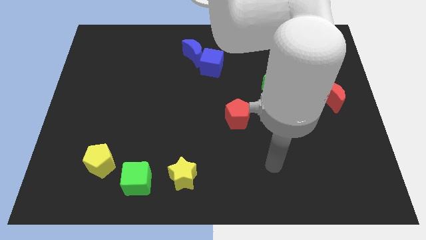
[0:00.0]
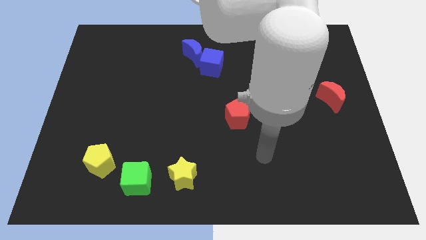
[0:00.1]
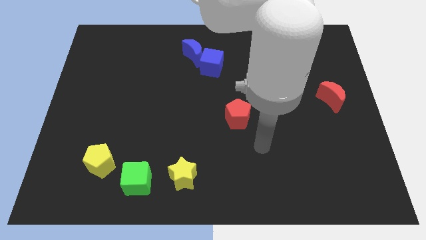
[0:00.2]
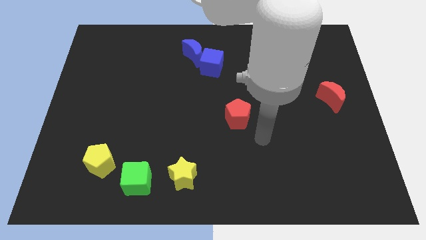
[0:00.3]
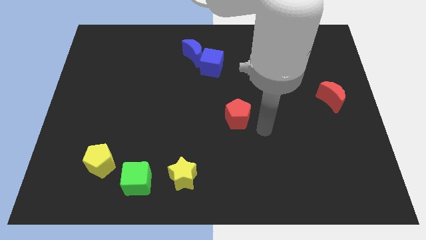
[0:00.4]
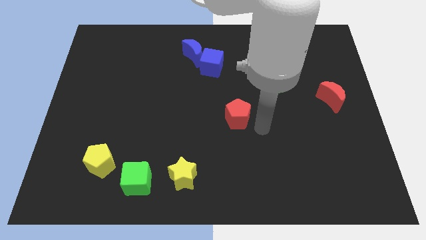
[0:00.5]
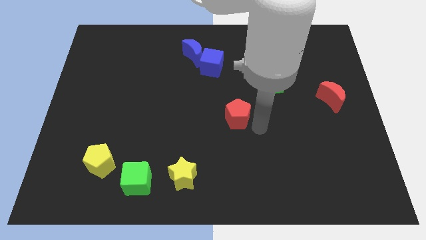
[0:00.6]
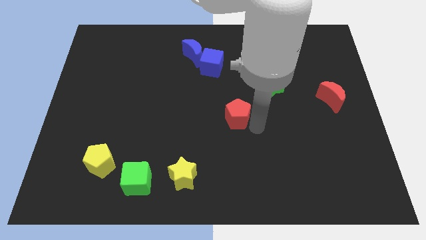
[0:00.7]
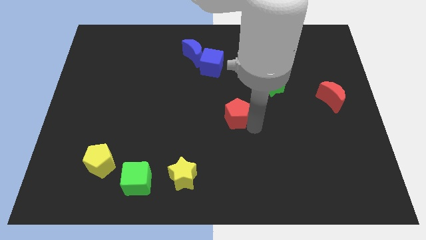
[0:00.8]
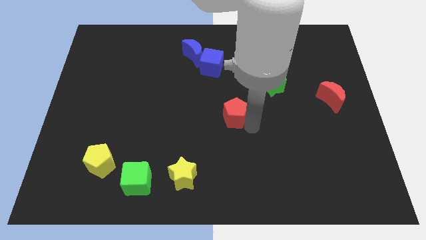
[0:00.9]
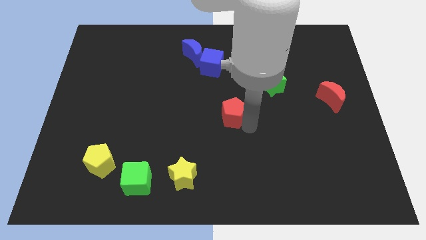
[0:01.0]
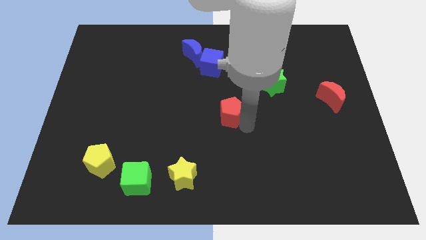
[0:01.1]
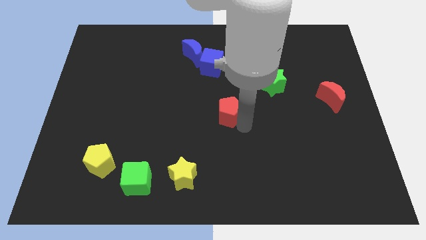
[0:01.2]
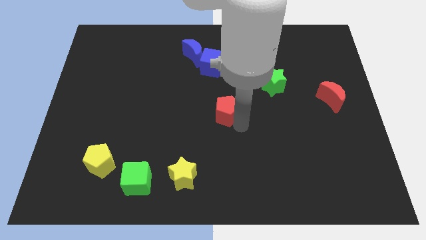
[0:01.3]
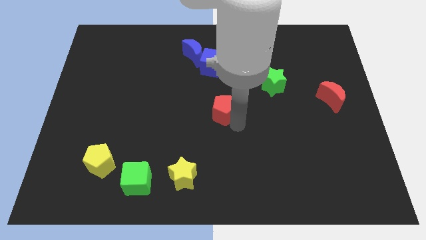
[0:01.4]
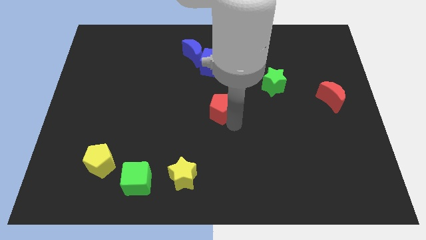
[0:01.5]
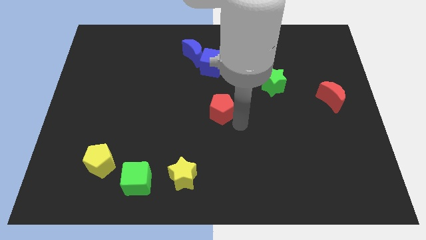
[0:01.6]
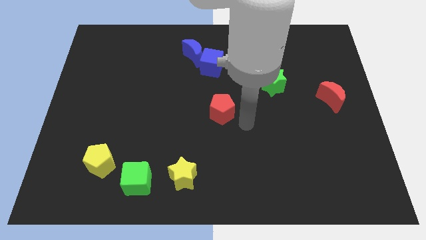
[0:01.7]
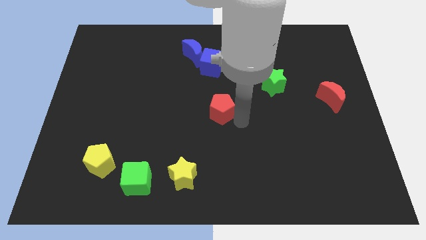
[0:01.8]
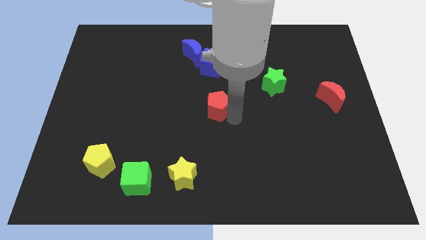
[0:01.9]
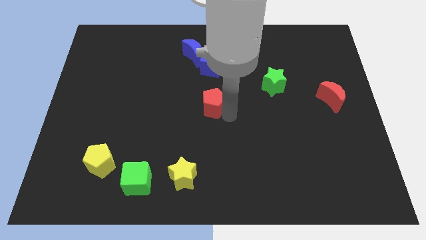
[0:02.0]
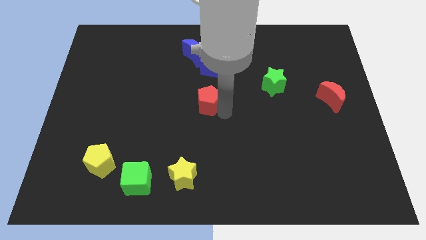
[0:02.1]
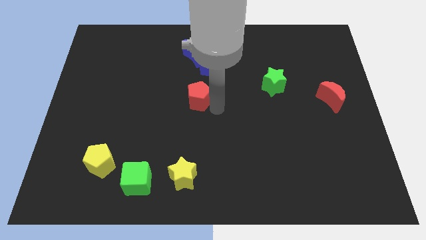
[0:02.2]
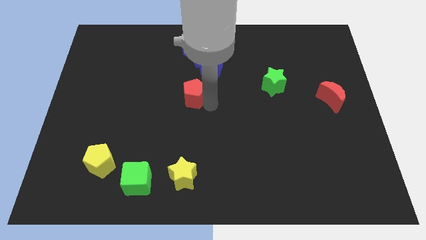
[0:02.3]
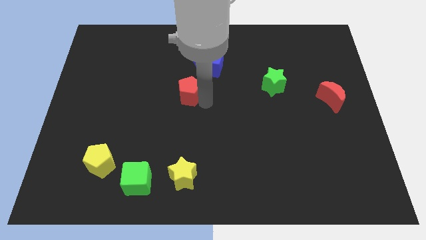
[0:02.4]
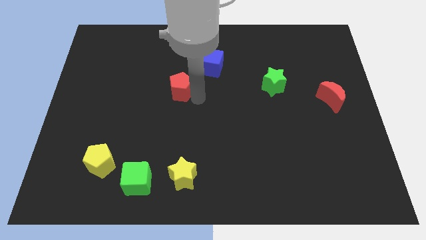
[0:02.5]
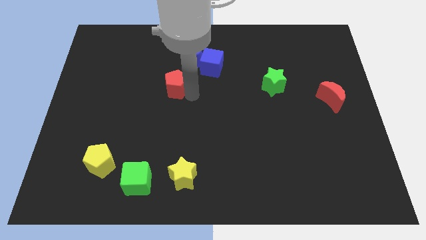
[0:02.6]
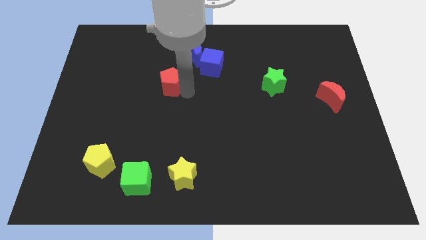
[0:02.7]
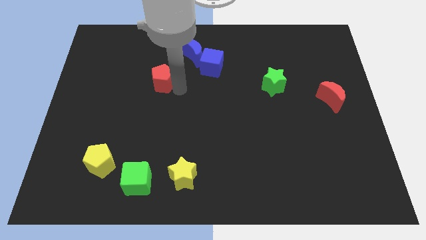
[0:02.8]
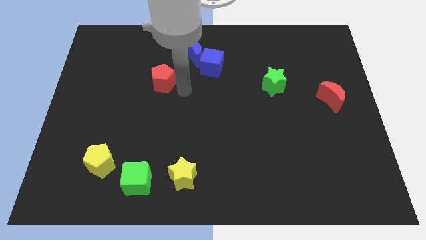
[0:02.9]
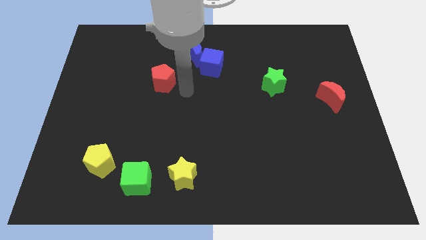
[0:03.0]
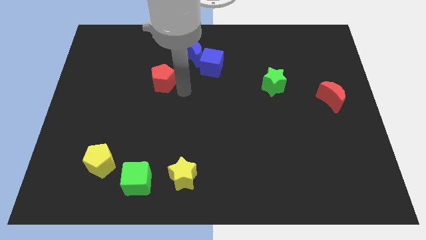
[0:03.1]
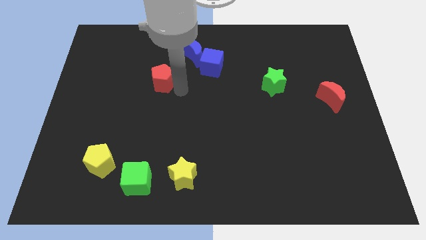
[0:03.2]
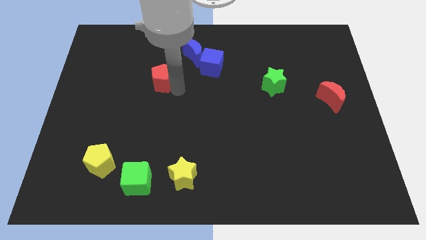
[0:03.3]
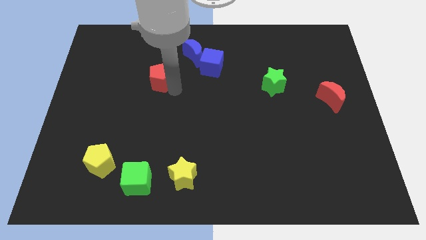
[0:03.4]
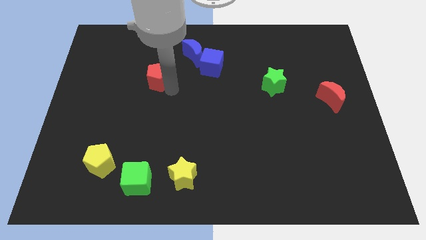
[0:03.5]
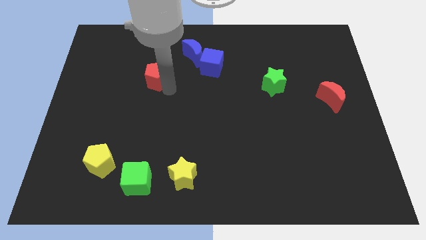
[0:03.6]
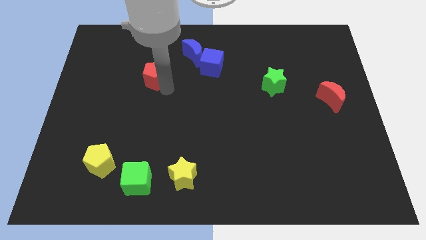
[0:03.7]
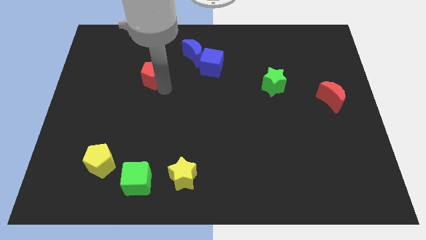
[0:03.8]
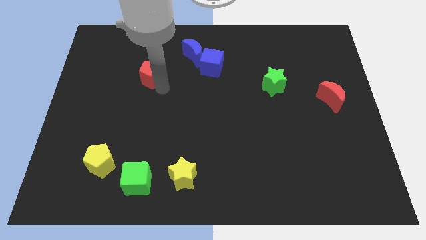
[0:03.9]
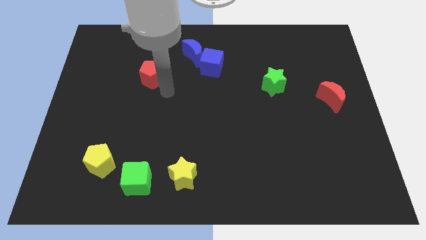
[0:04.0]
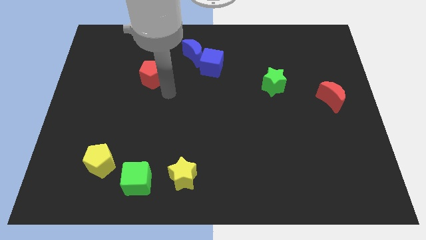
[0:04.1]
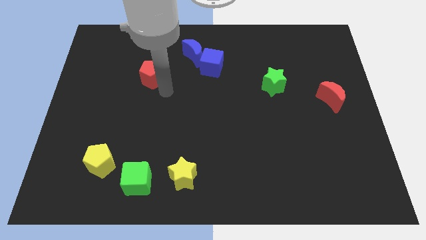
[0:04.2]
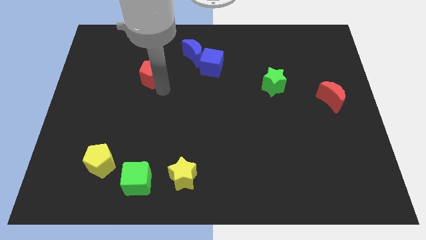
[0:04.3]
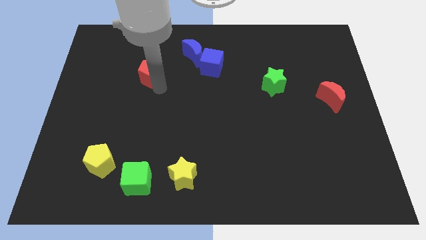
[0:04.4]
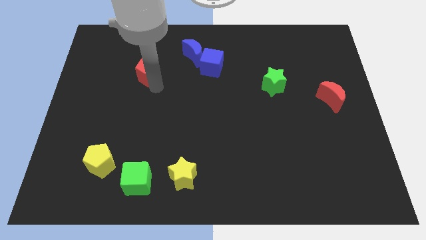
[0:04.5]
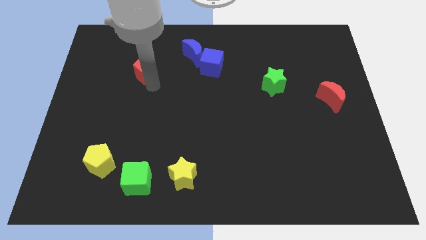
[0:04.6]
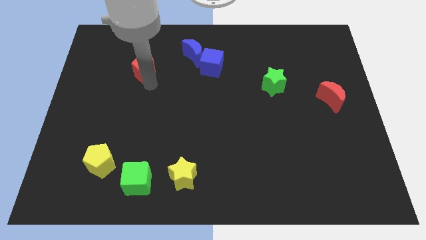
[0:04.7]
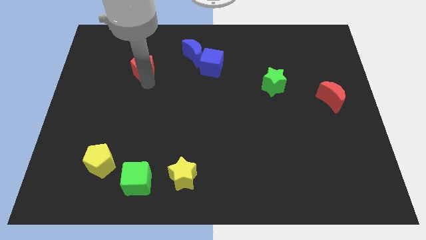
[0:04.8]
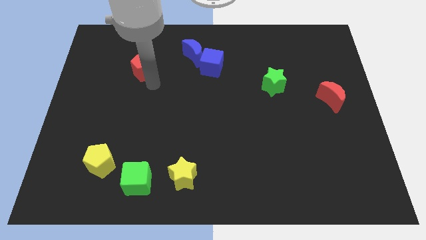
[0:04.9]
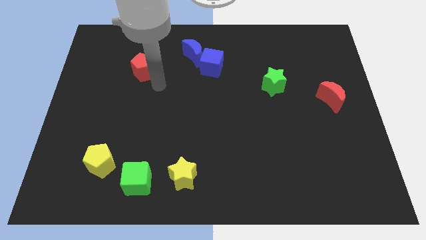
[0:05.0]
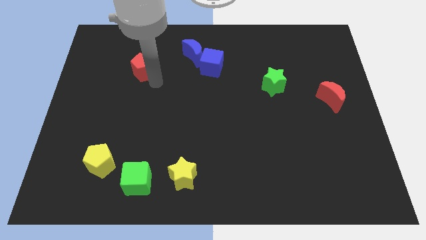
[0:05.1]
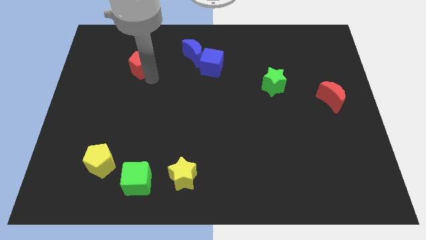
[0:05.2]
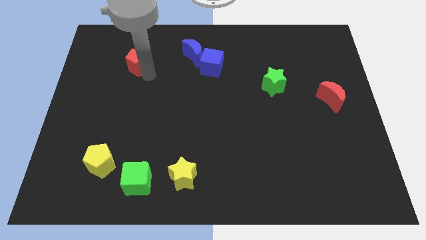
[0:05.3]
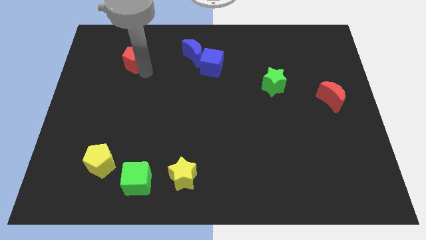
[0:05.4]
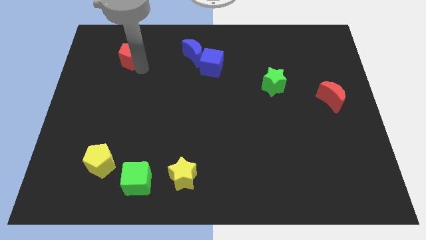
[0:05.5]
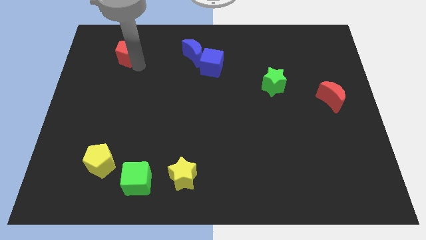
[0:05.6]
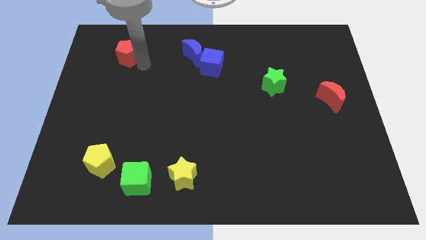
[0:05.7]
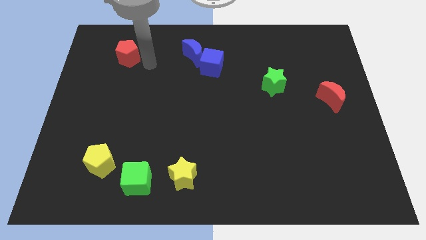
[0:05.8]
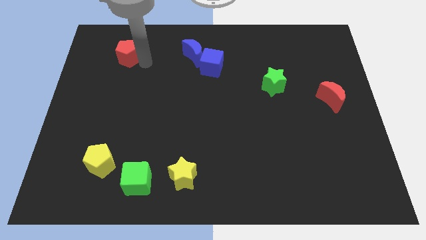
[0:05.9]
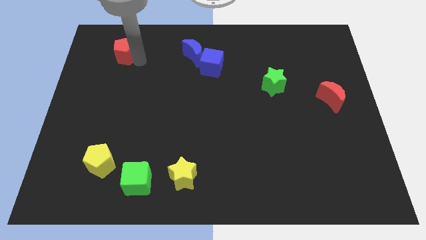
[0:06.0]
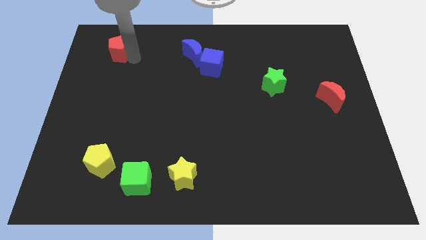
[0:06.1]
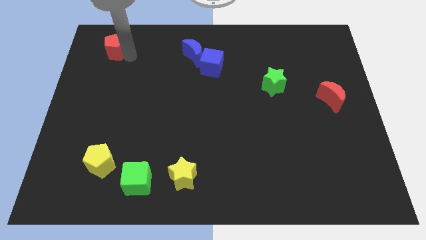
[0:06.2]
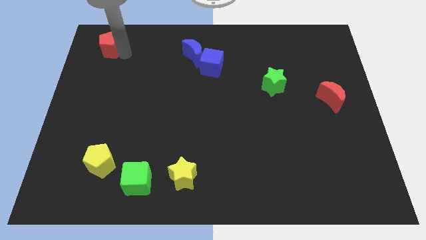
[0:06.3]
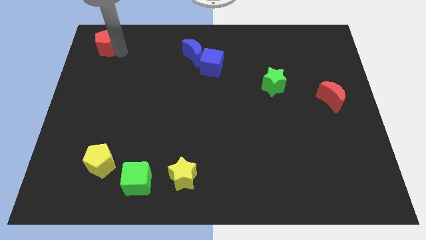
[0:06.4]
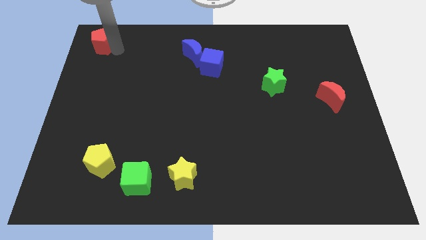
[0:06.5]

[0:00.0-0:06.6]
put the red pentagon to the top left of the board

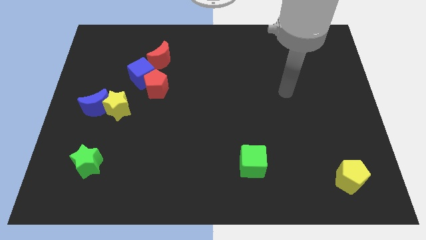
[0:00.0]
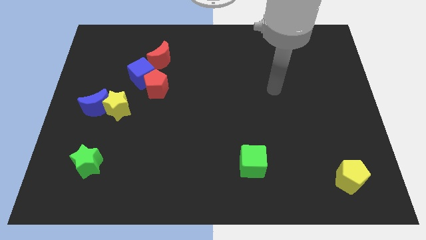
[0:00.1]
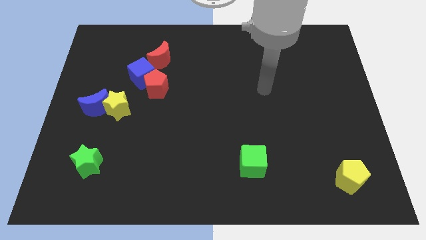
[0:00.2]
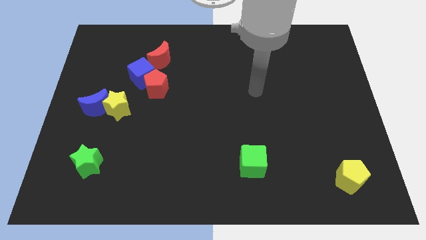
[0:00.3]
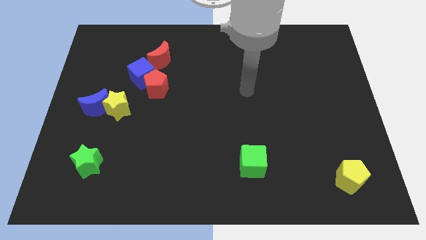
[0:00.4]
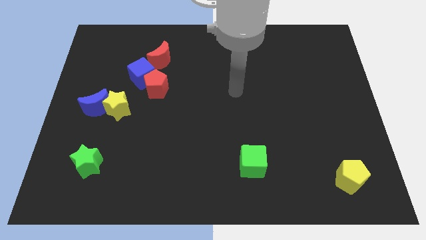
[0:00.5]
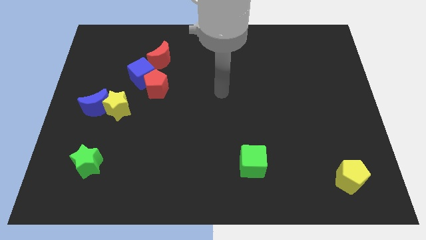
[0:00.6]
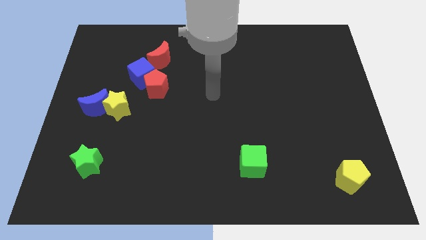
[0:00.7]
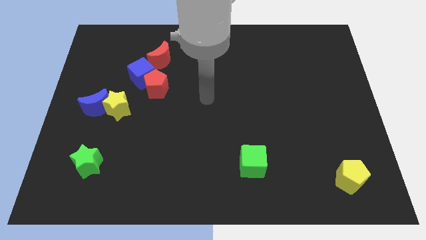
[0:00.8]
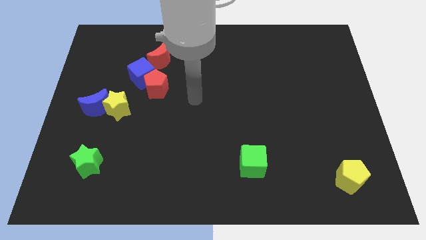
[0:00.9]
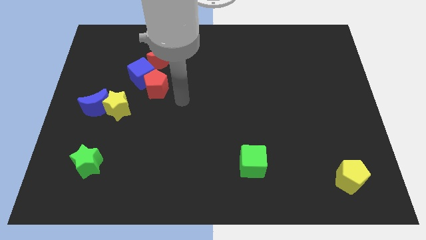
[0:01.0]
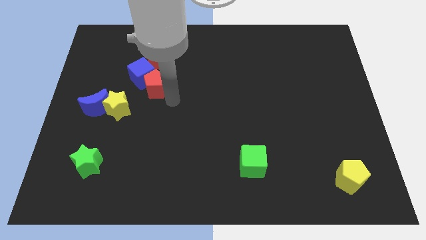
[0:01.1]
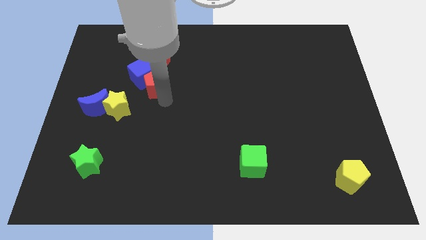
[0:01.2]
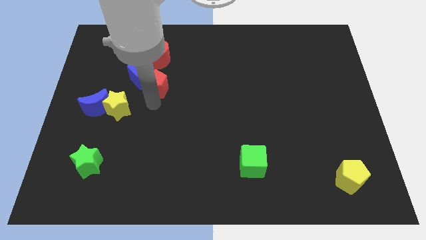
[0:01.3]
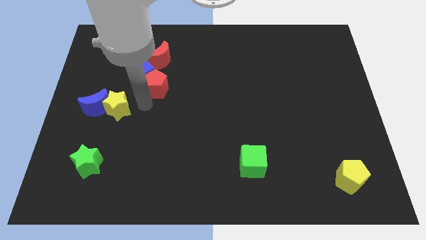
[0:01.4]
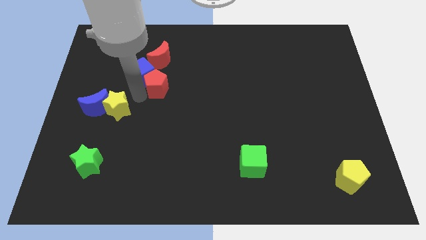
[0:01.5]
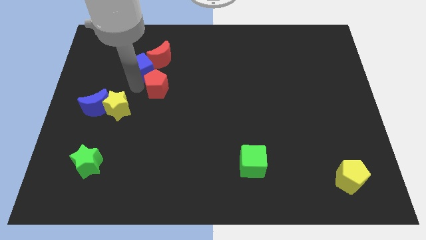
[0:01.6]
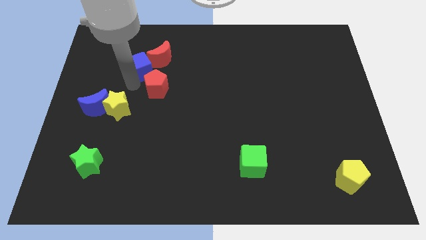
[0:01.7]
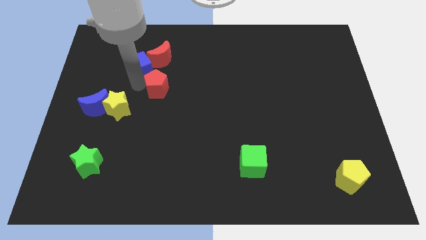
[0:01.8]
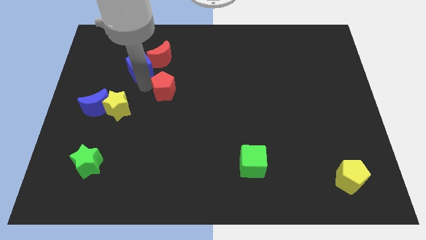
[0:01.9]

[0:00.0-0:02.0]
put the red pentagon to the middle of the board
